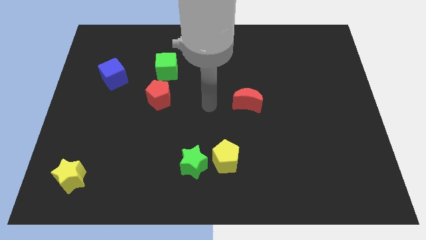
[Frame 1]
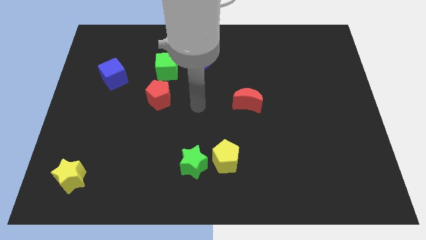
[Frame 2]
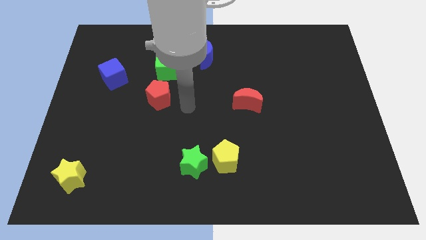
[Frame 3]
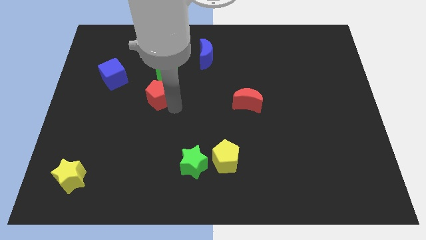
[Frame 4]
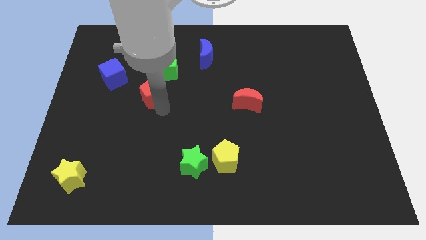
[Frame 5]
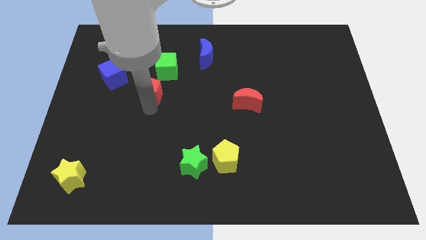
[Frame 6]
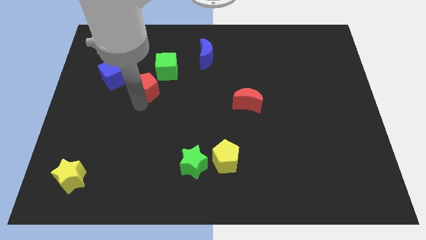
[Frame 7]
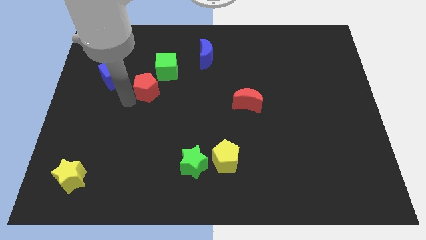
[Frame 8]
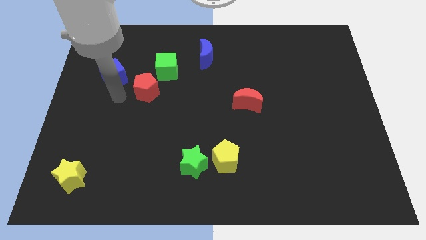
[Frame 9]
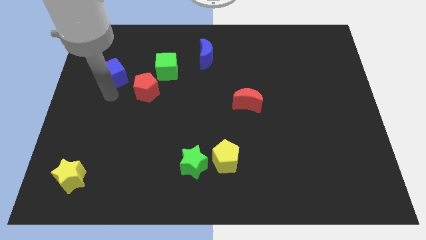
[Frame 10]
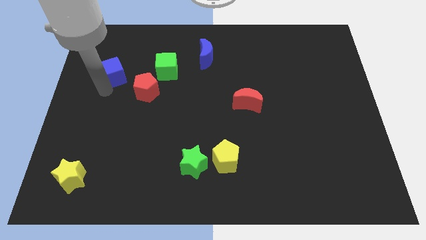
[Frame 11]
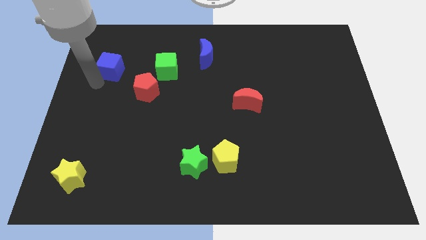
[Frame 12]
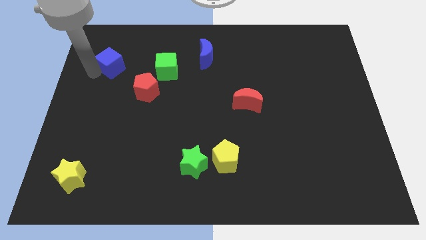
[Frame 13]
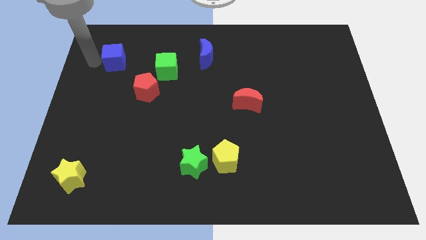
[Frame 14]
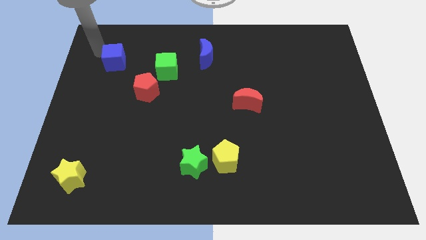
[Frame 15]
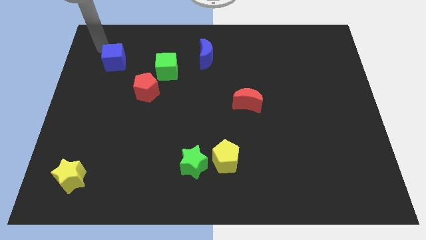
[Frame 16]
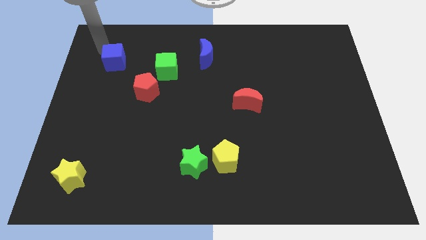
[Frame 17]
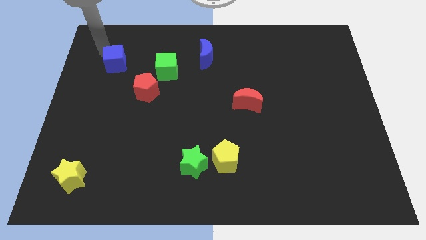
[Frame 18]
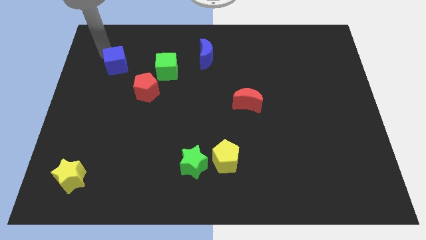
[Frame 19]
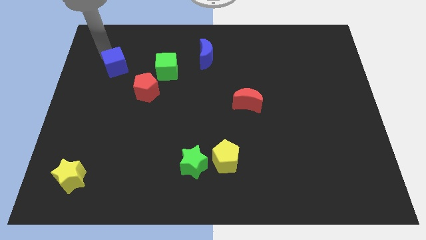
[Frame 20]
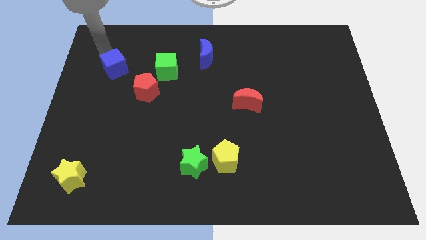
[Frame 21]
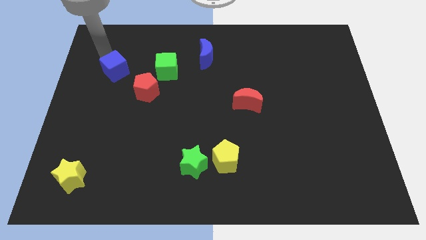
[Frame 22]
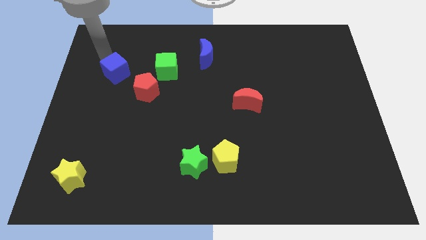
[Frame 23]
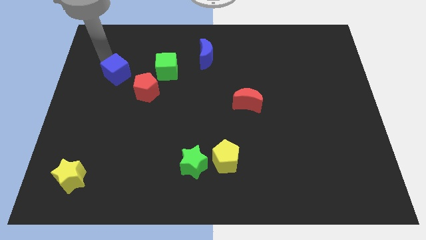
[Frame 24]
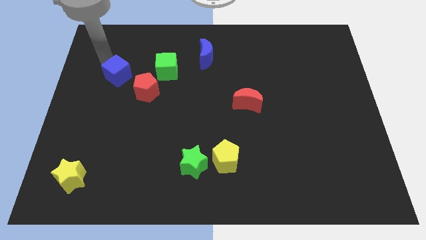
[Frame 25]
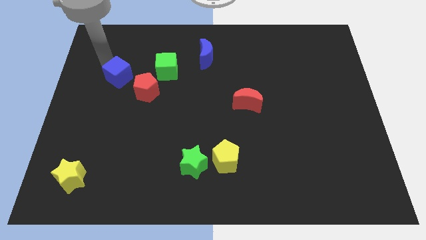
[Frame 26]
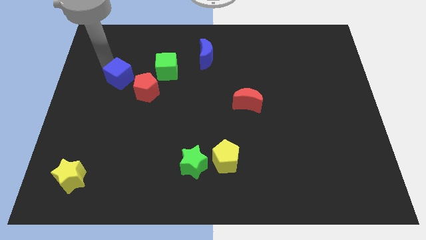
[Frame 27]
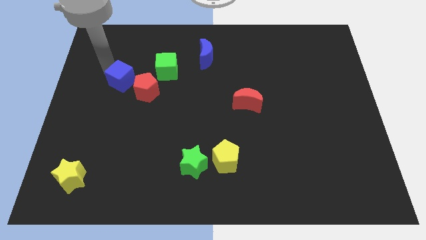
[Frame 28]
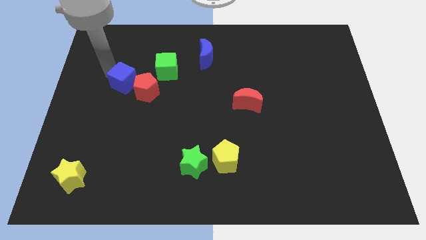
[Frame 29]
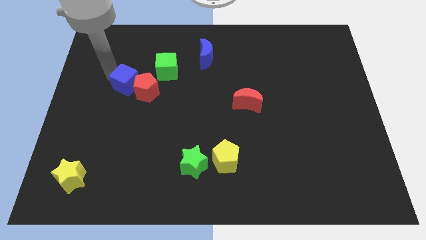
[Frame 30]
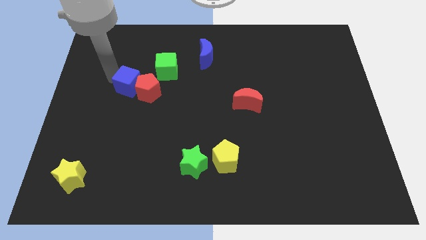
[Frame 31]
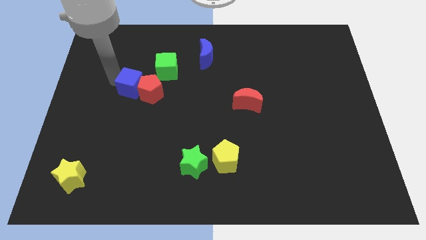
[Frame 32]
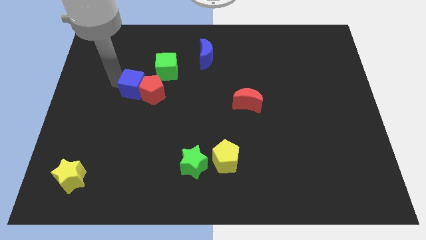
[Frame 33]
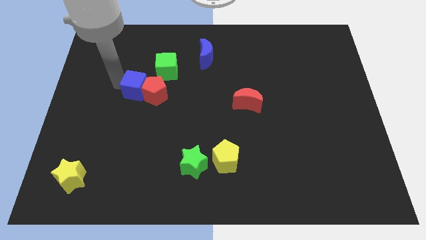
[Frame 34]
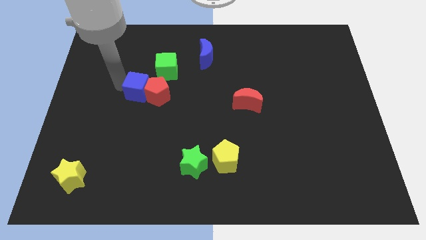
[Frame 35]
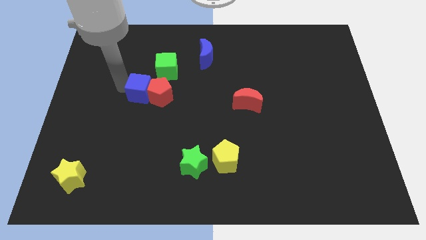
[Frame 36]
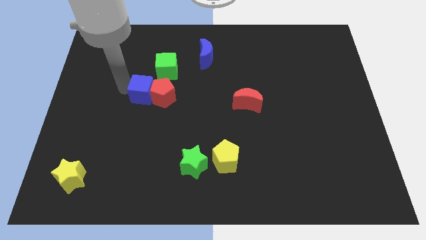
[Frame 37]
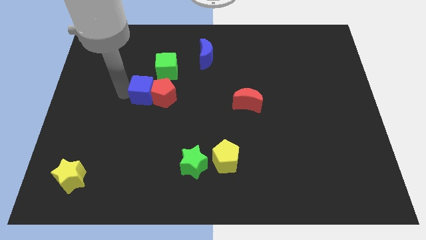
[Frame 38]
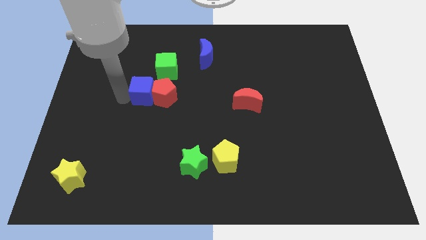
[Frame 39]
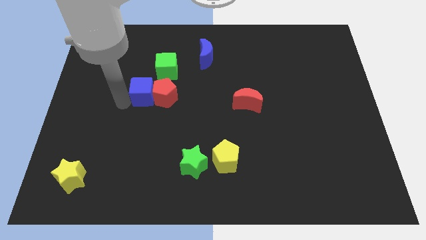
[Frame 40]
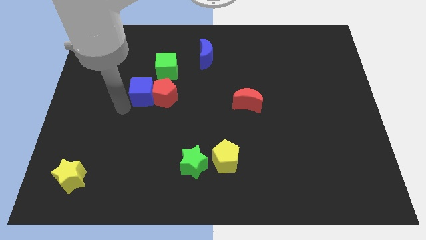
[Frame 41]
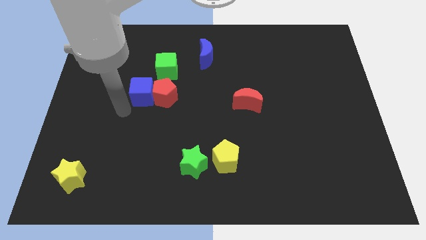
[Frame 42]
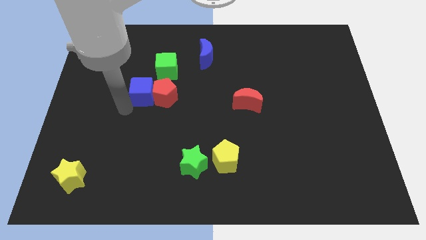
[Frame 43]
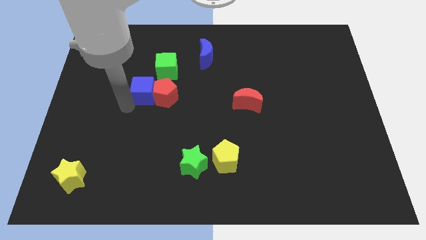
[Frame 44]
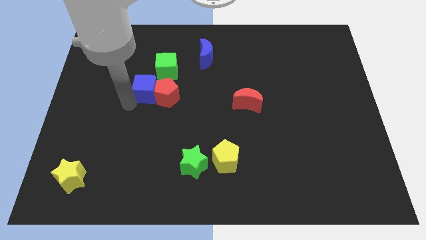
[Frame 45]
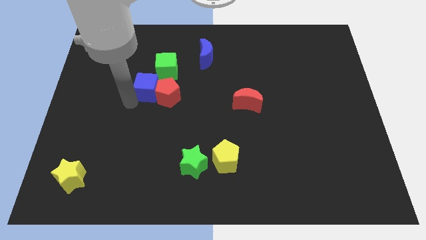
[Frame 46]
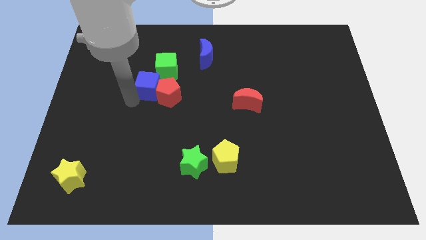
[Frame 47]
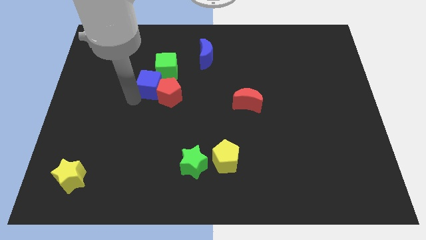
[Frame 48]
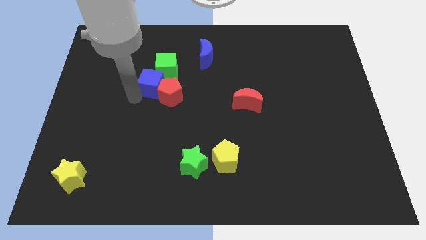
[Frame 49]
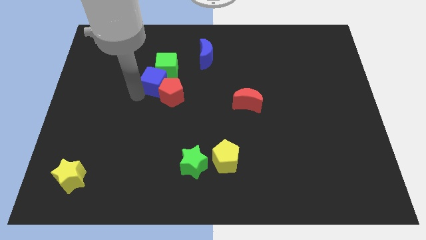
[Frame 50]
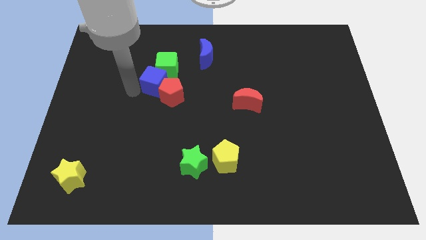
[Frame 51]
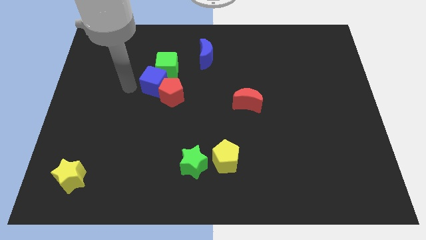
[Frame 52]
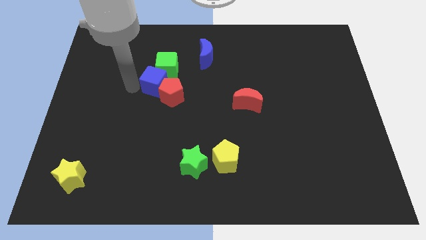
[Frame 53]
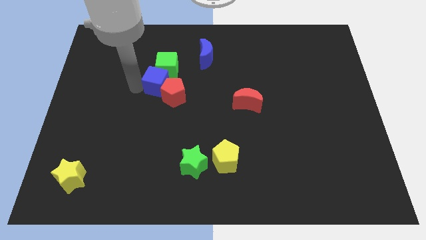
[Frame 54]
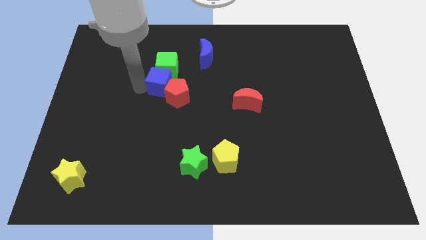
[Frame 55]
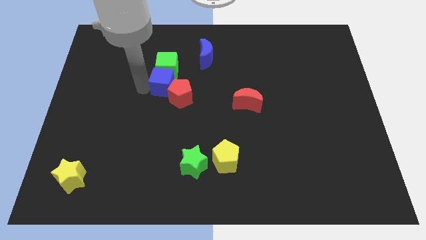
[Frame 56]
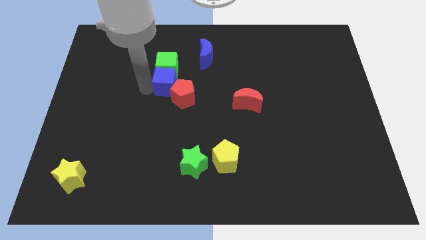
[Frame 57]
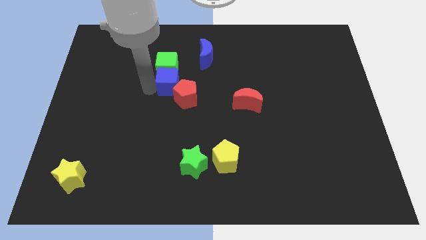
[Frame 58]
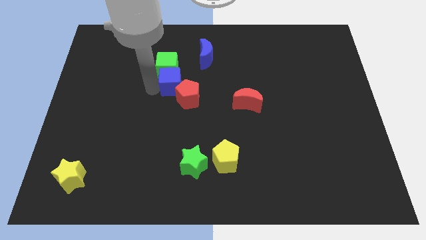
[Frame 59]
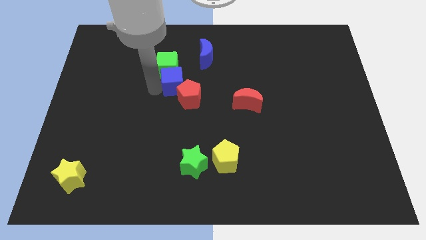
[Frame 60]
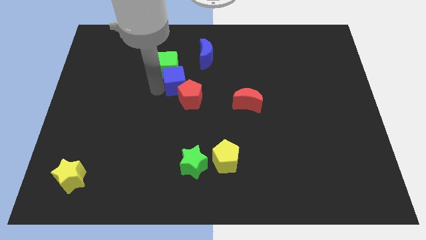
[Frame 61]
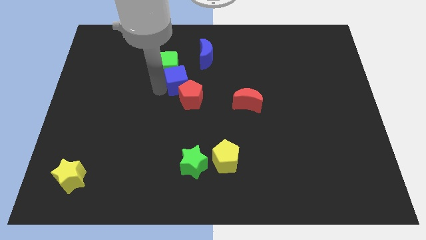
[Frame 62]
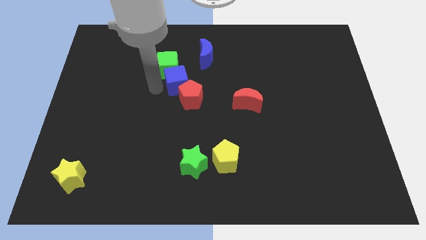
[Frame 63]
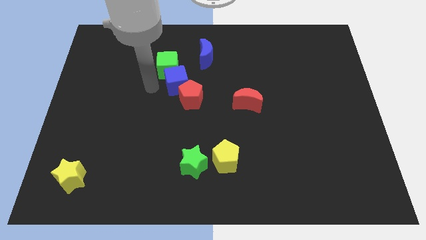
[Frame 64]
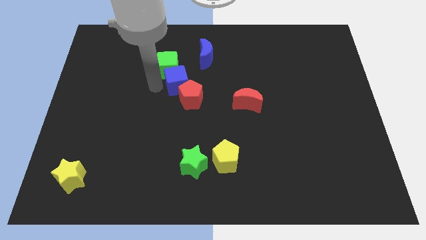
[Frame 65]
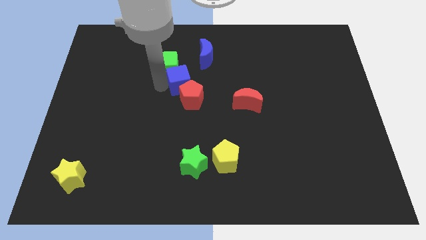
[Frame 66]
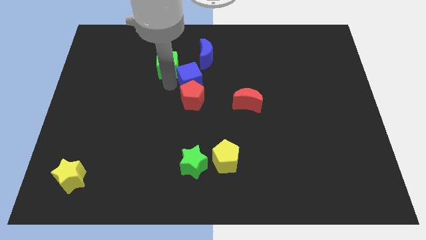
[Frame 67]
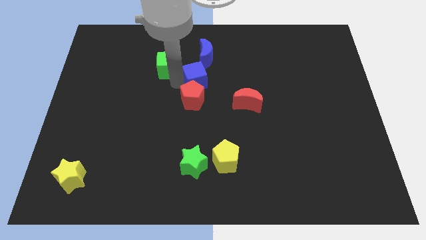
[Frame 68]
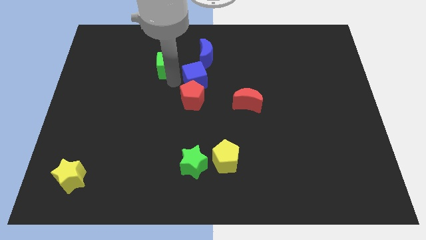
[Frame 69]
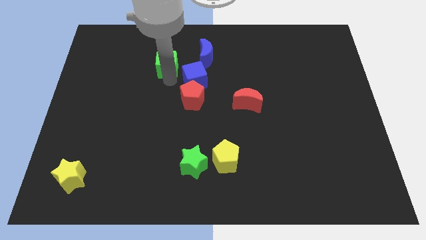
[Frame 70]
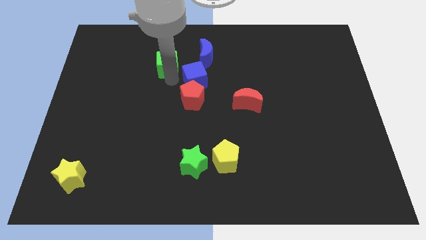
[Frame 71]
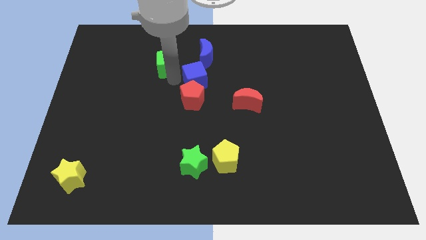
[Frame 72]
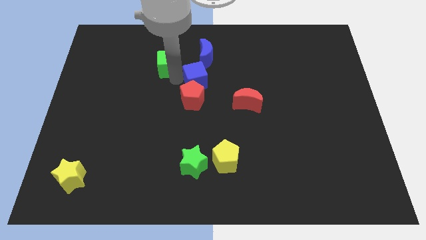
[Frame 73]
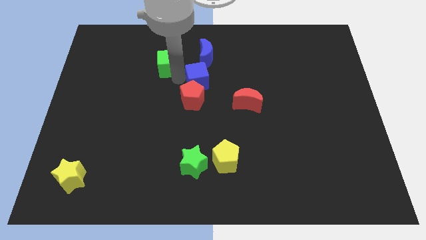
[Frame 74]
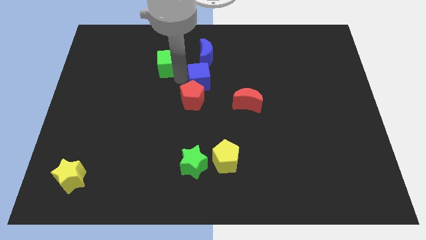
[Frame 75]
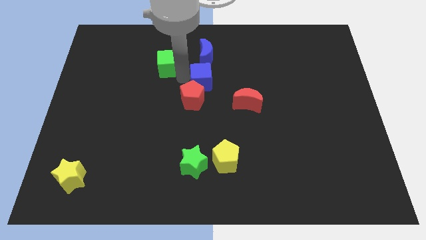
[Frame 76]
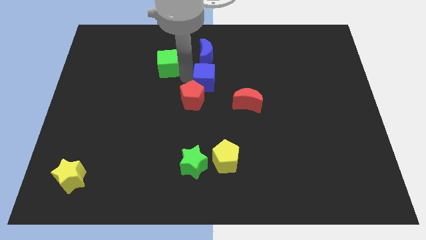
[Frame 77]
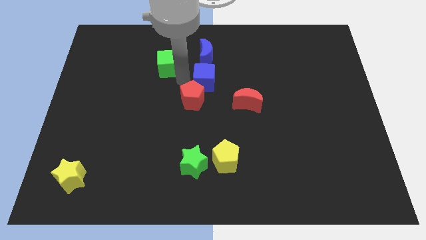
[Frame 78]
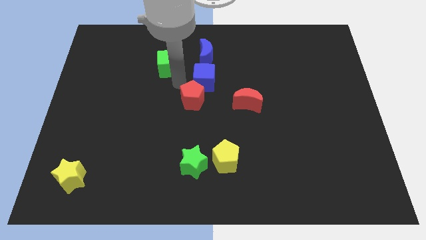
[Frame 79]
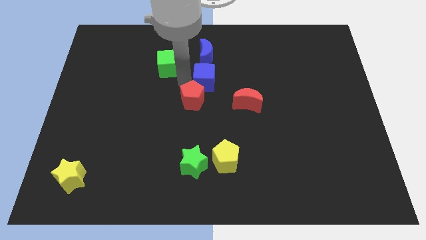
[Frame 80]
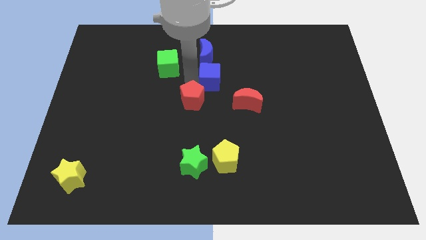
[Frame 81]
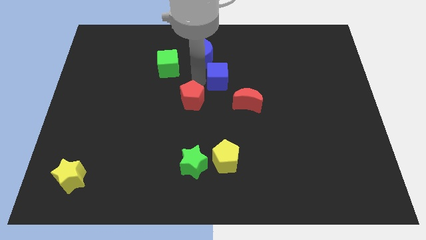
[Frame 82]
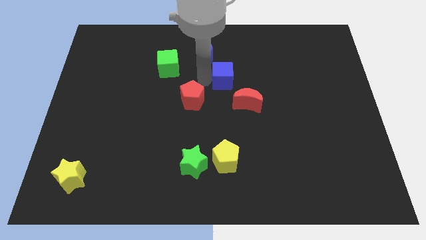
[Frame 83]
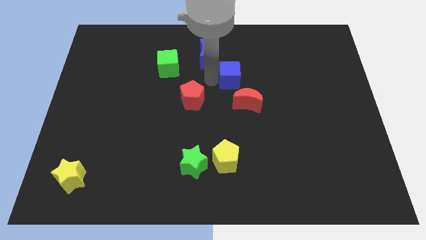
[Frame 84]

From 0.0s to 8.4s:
push the blue cube to the top side of the red moon
